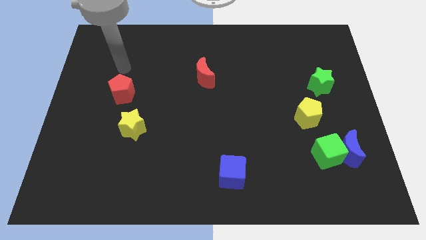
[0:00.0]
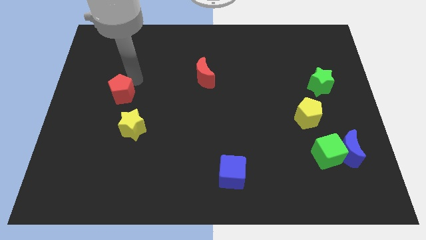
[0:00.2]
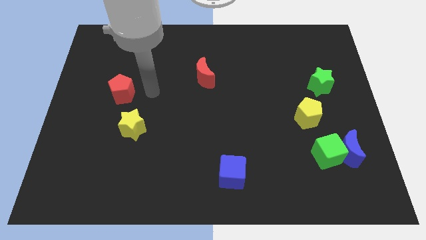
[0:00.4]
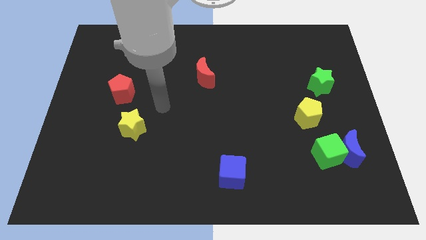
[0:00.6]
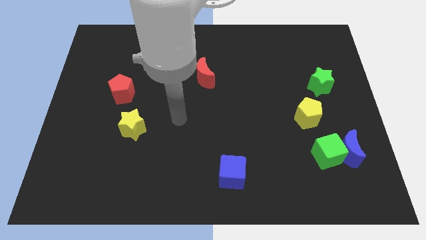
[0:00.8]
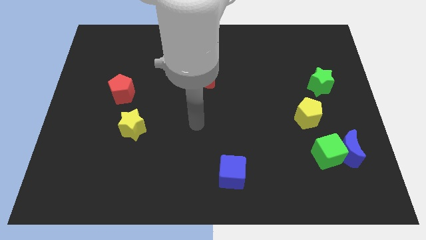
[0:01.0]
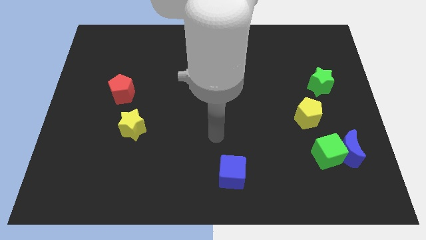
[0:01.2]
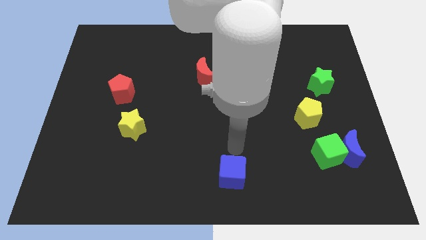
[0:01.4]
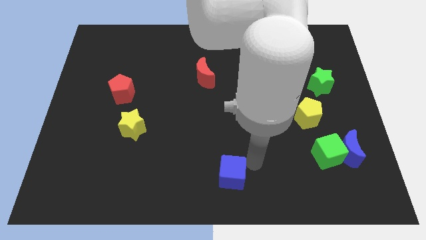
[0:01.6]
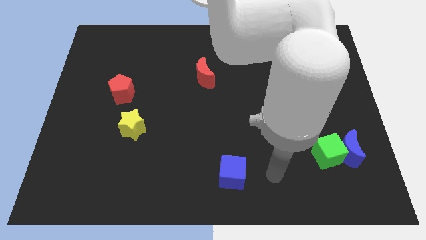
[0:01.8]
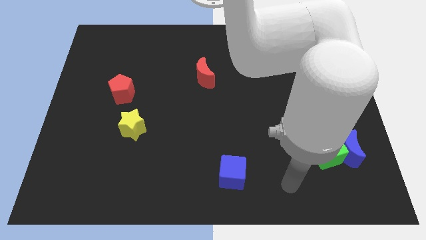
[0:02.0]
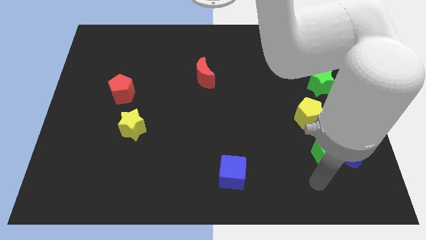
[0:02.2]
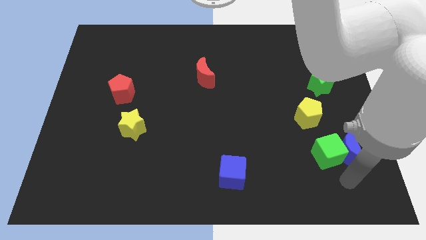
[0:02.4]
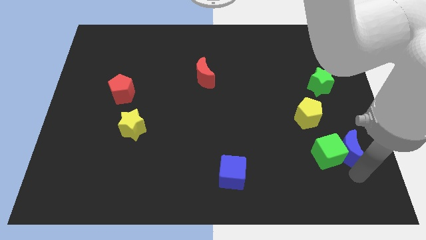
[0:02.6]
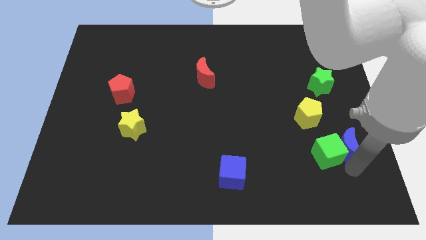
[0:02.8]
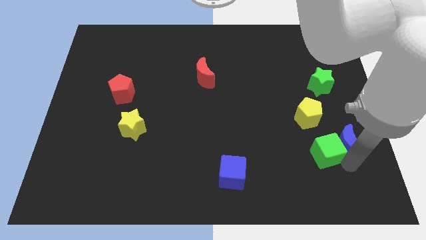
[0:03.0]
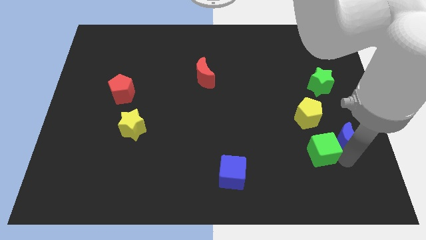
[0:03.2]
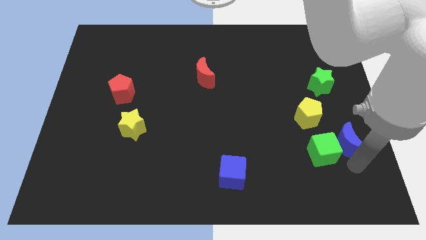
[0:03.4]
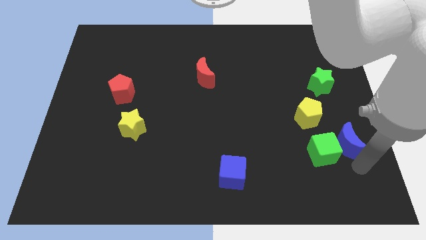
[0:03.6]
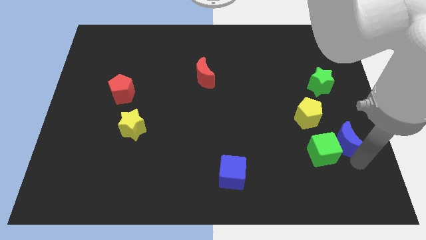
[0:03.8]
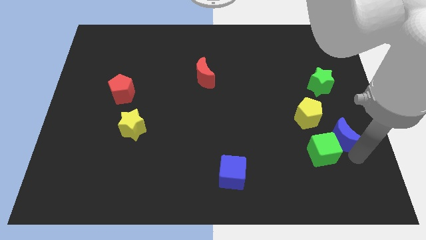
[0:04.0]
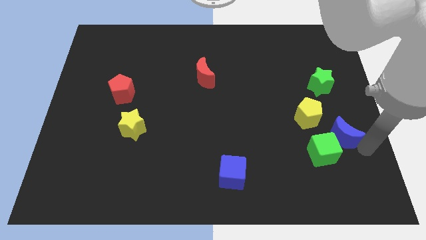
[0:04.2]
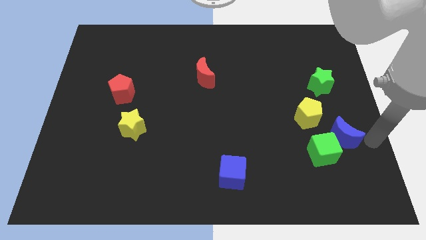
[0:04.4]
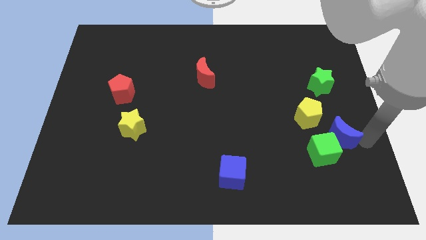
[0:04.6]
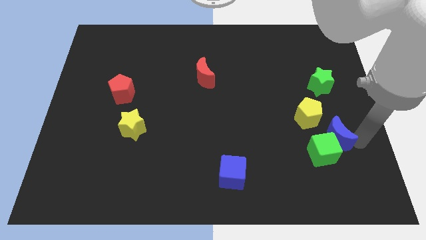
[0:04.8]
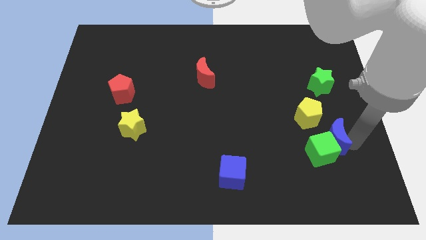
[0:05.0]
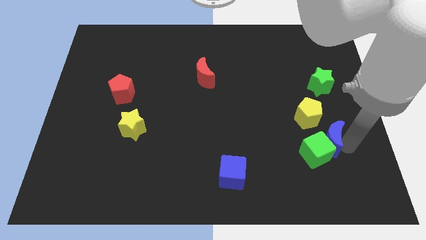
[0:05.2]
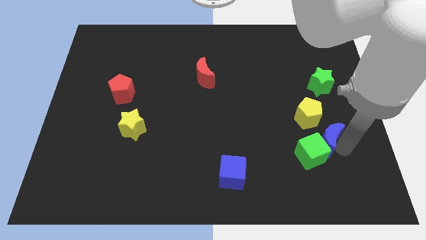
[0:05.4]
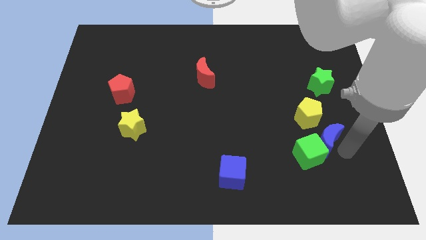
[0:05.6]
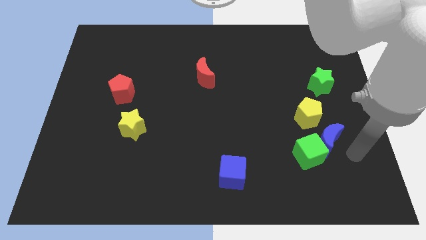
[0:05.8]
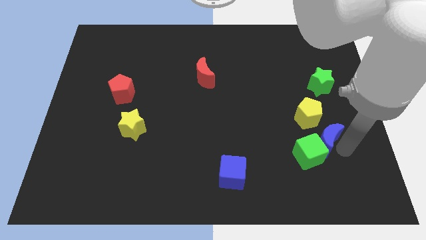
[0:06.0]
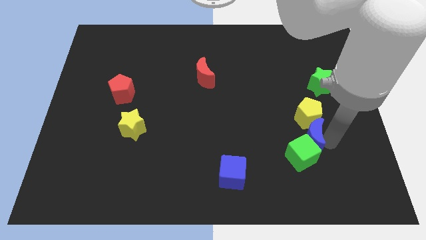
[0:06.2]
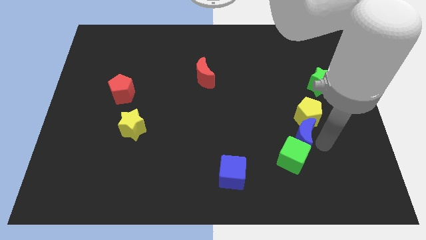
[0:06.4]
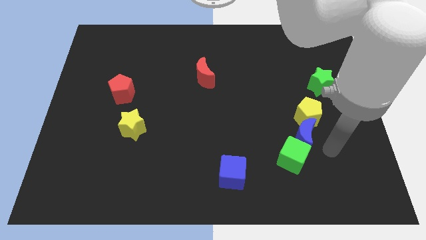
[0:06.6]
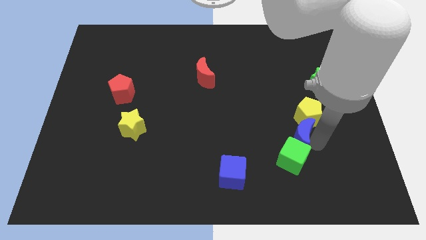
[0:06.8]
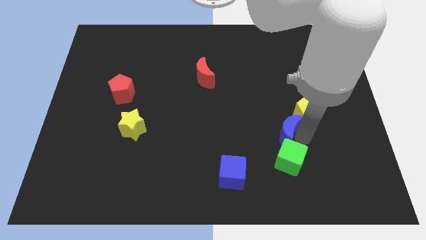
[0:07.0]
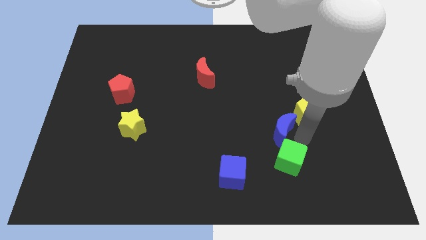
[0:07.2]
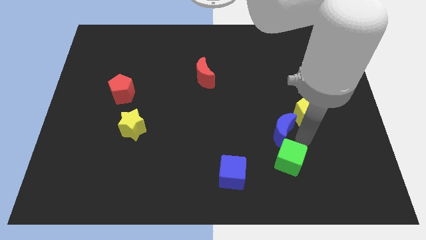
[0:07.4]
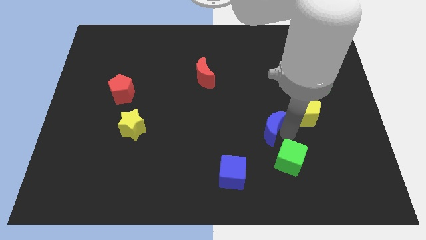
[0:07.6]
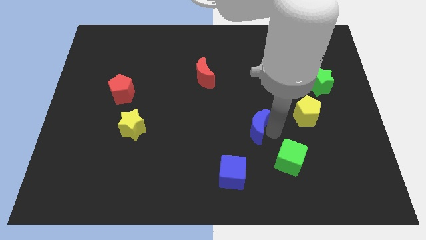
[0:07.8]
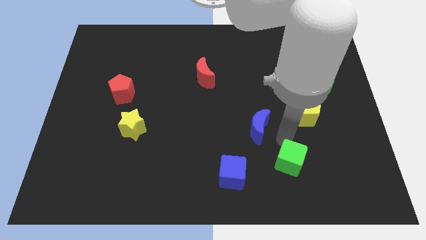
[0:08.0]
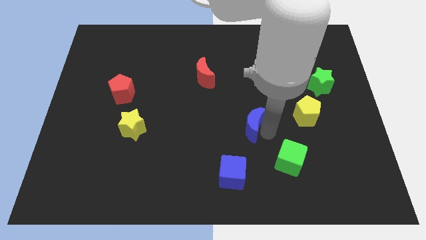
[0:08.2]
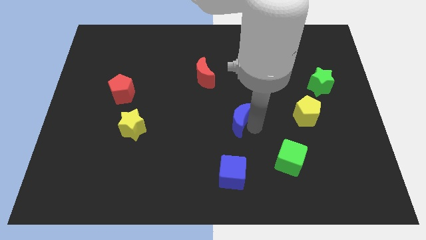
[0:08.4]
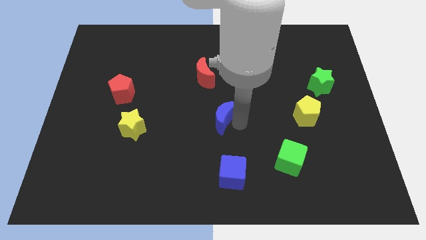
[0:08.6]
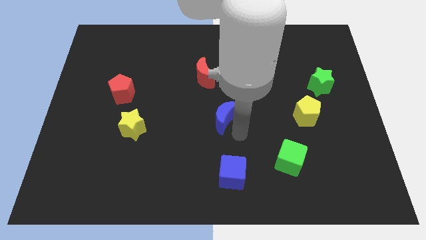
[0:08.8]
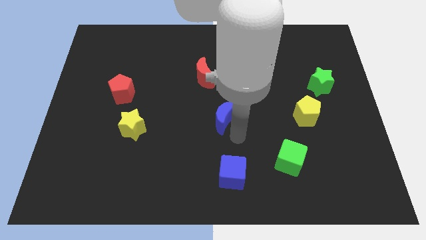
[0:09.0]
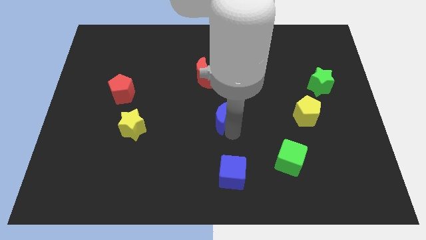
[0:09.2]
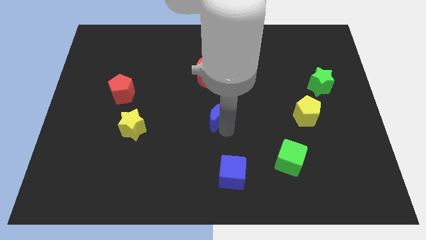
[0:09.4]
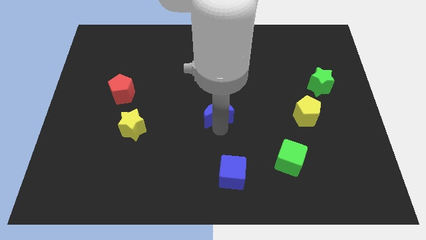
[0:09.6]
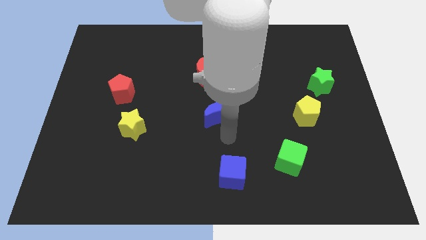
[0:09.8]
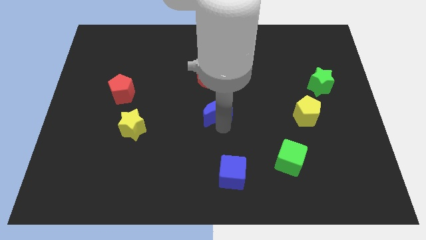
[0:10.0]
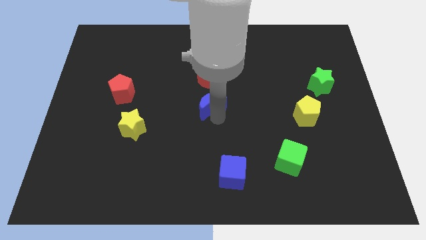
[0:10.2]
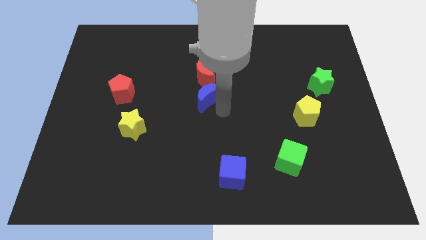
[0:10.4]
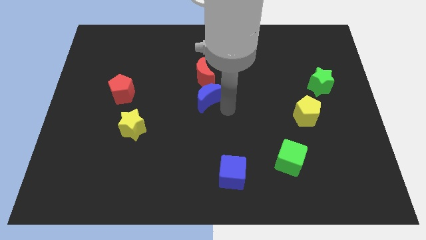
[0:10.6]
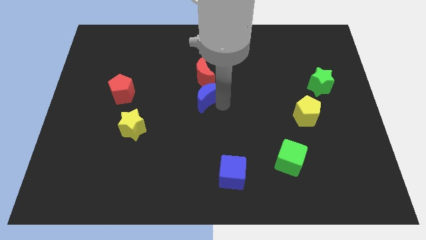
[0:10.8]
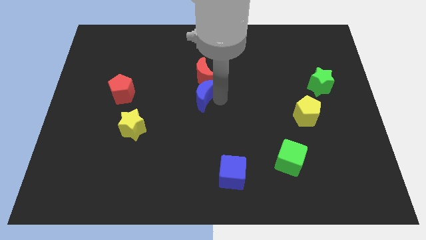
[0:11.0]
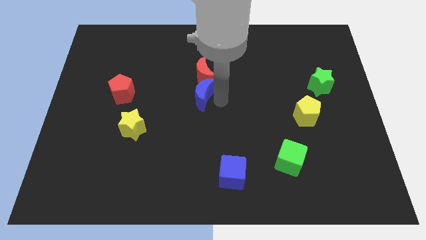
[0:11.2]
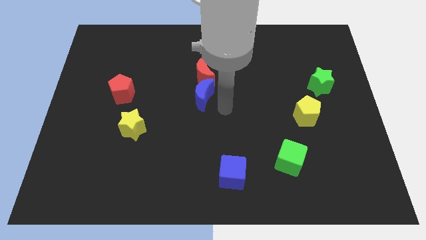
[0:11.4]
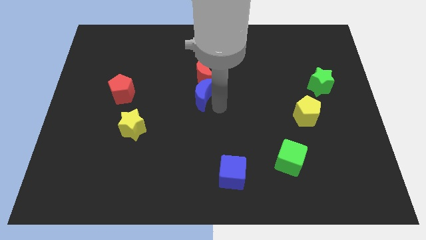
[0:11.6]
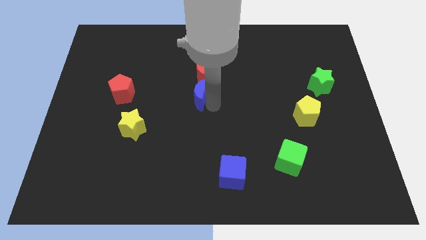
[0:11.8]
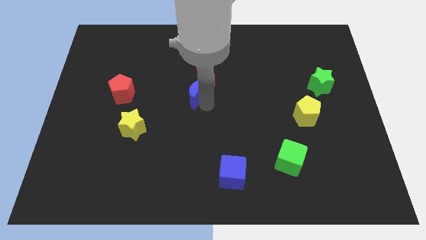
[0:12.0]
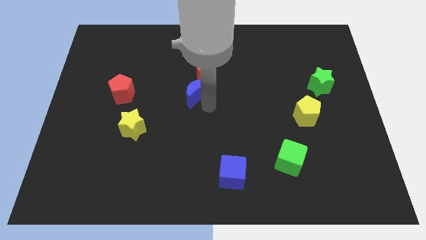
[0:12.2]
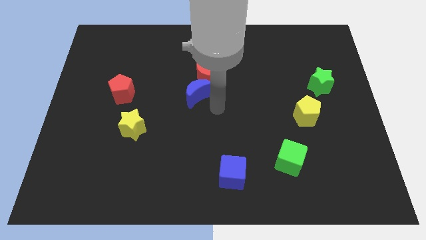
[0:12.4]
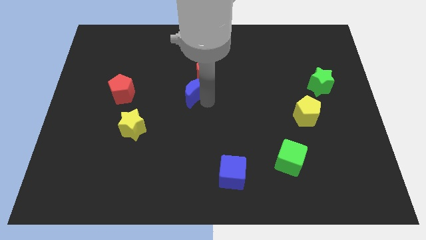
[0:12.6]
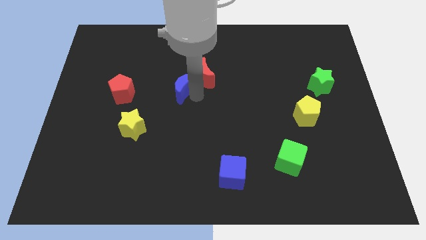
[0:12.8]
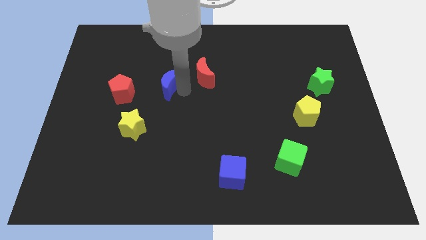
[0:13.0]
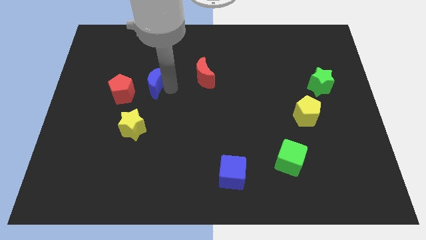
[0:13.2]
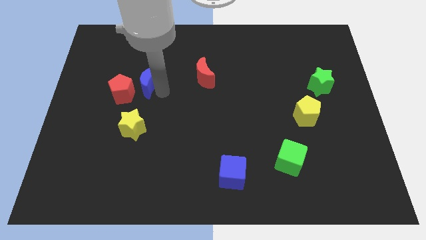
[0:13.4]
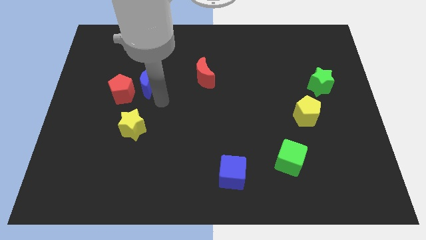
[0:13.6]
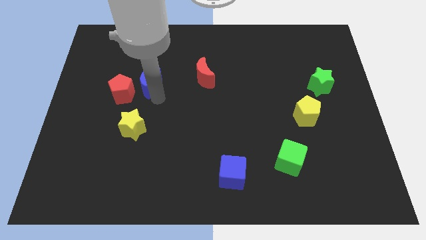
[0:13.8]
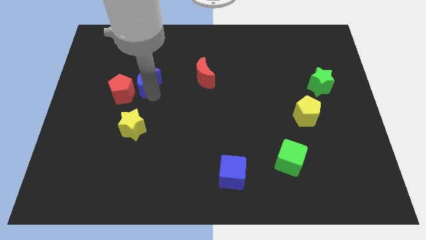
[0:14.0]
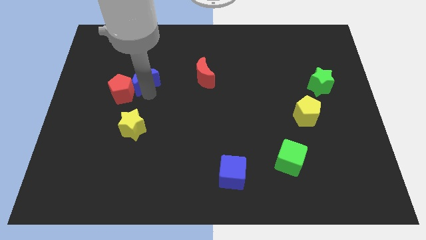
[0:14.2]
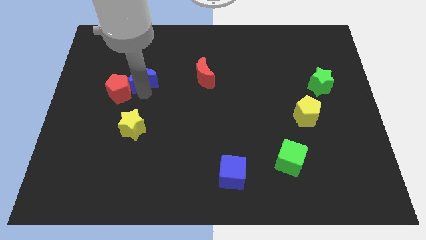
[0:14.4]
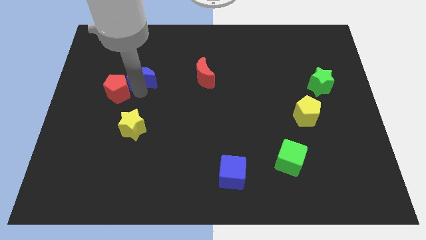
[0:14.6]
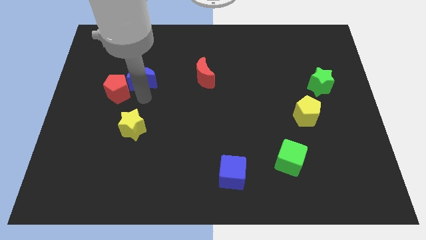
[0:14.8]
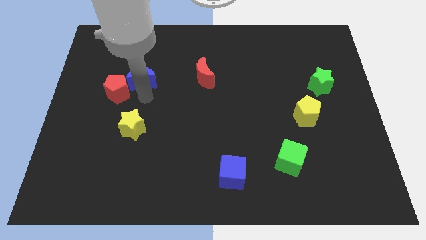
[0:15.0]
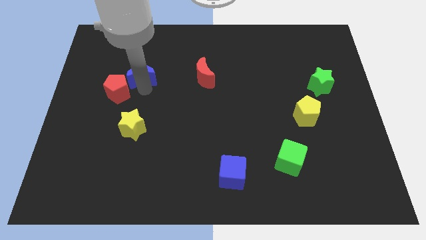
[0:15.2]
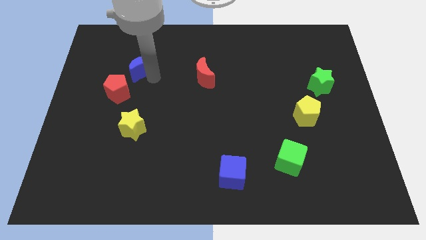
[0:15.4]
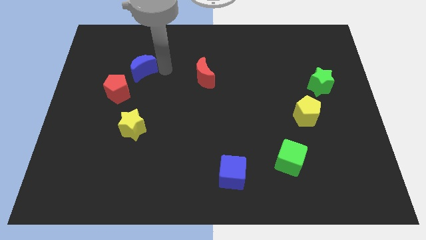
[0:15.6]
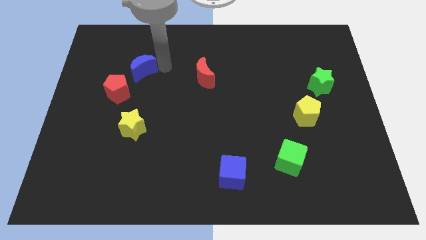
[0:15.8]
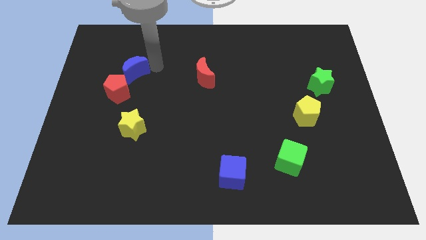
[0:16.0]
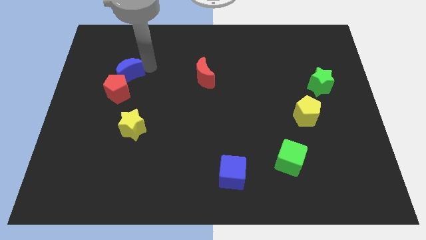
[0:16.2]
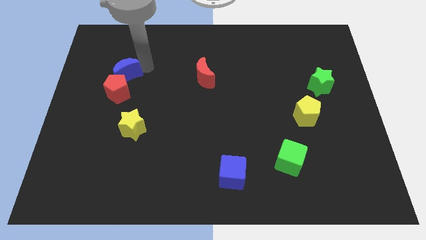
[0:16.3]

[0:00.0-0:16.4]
push the blue moon to the top left side of the red pentagon
